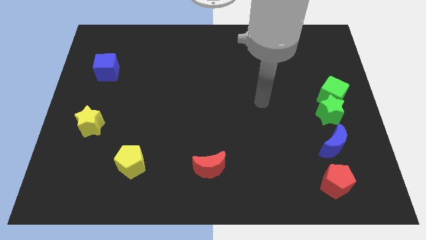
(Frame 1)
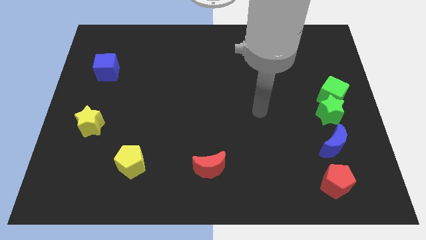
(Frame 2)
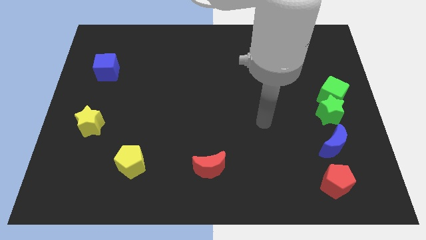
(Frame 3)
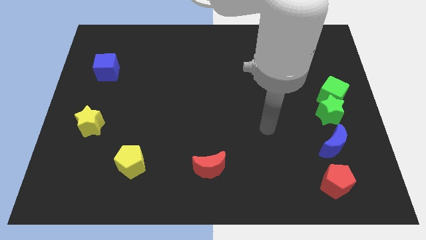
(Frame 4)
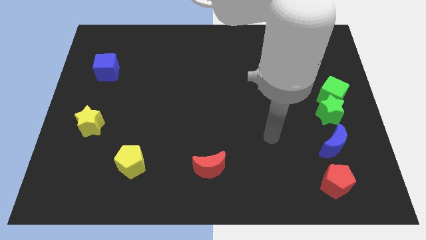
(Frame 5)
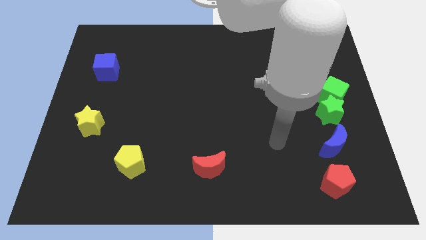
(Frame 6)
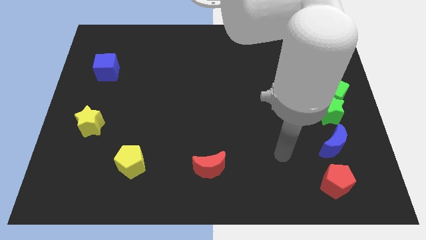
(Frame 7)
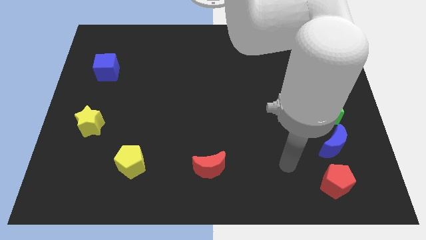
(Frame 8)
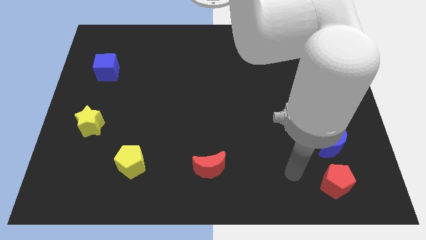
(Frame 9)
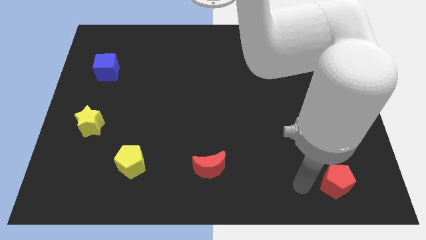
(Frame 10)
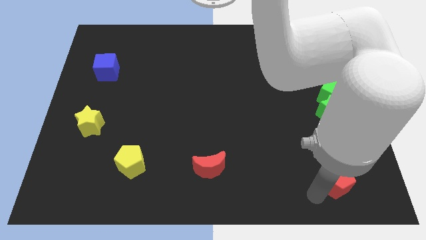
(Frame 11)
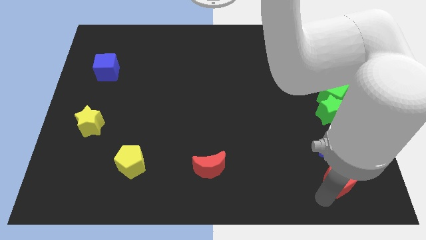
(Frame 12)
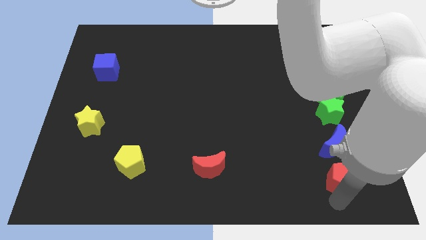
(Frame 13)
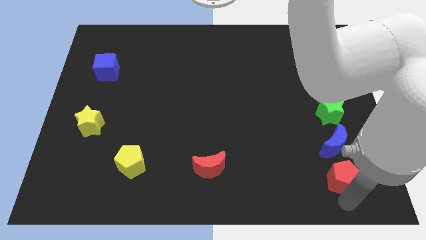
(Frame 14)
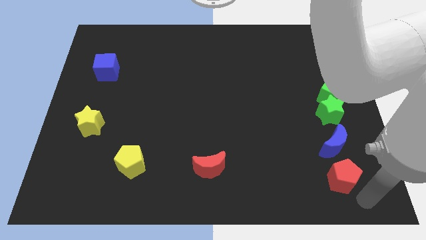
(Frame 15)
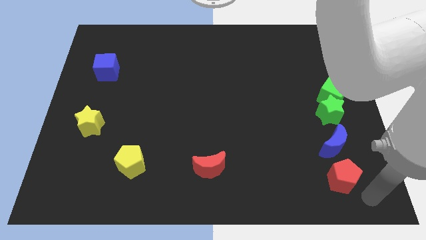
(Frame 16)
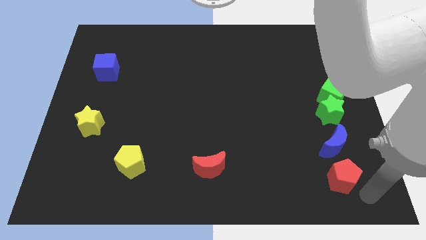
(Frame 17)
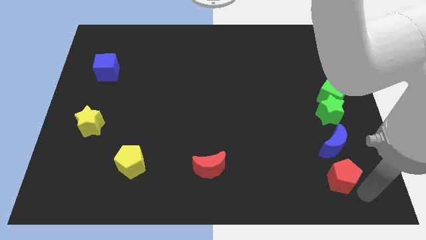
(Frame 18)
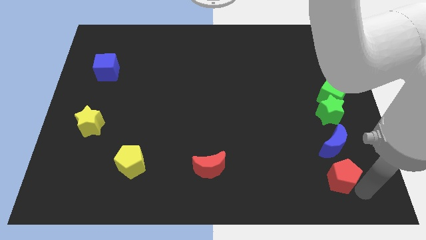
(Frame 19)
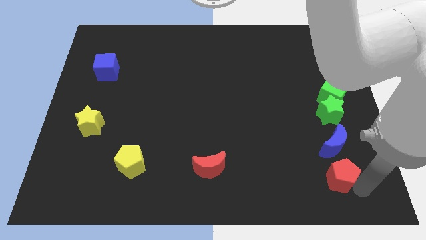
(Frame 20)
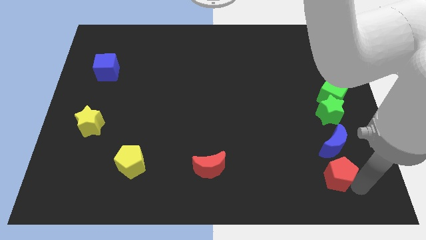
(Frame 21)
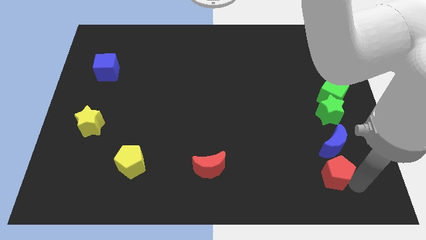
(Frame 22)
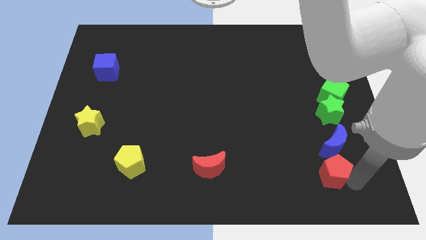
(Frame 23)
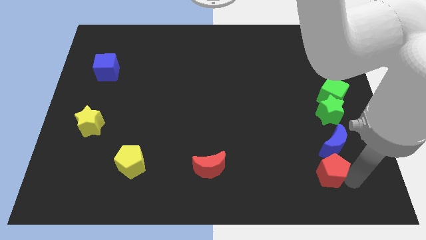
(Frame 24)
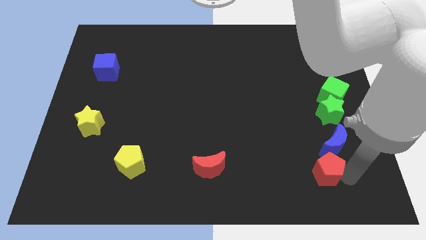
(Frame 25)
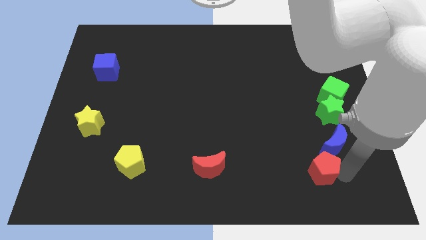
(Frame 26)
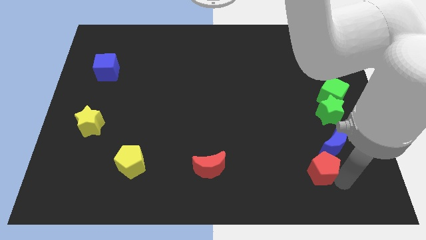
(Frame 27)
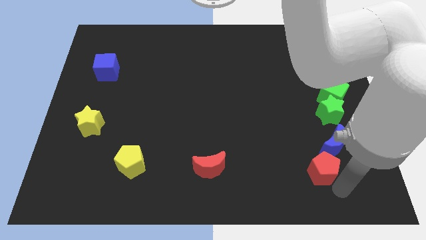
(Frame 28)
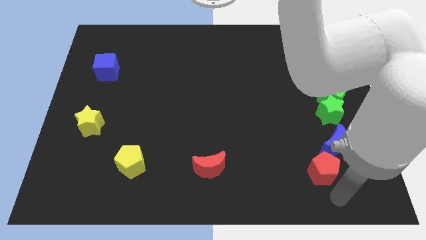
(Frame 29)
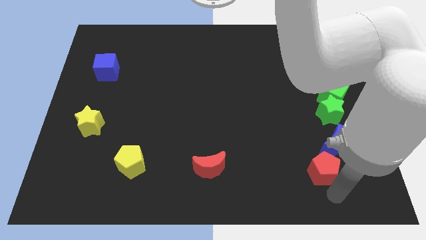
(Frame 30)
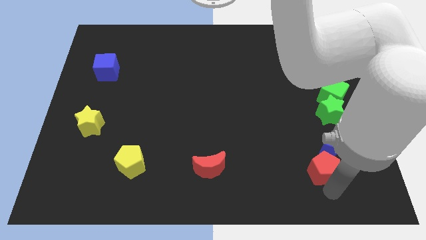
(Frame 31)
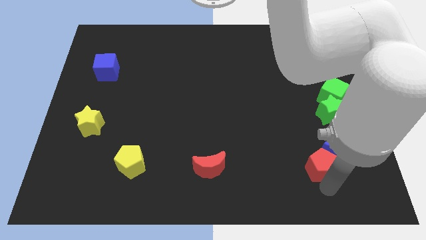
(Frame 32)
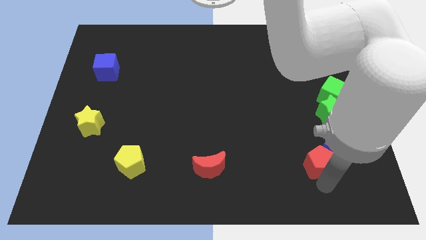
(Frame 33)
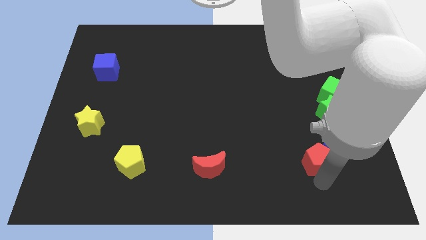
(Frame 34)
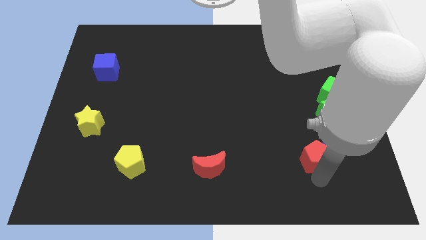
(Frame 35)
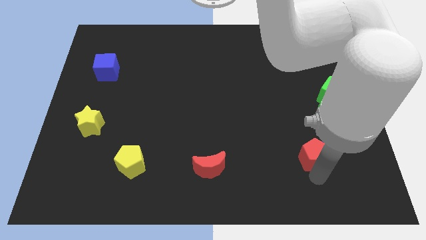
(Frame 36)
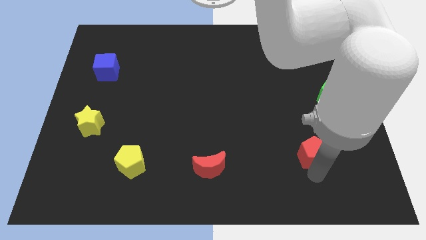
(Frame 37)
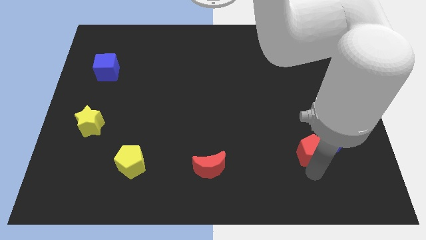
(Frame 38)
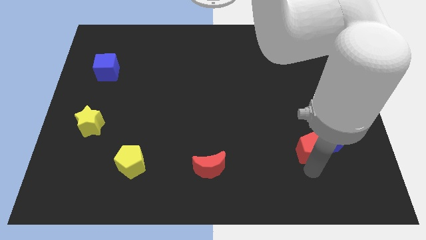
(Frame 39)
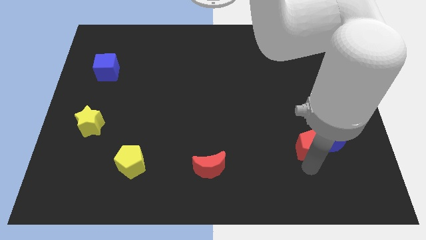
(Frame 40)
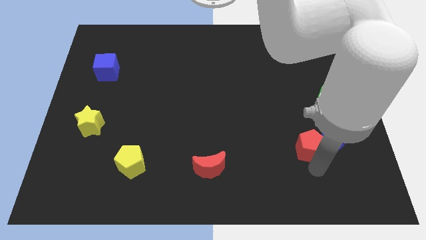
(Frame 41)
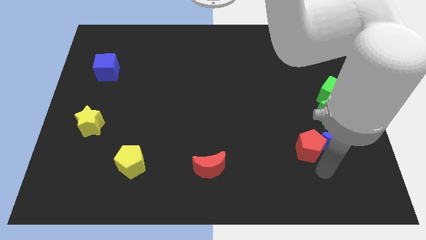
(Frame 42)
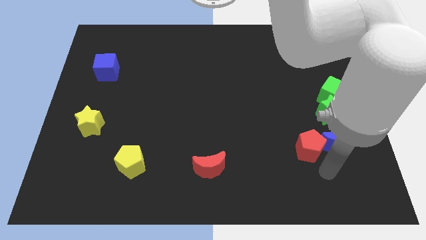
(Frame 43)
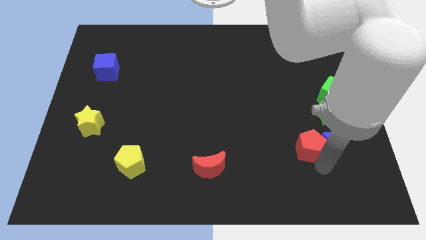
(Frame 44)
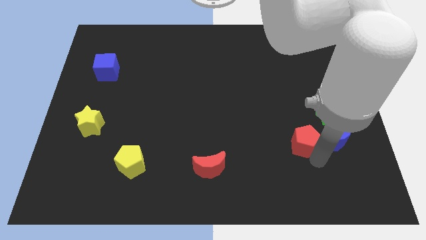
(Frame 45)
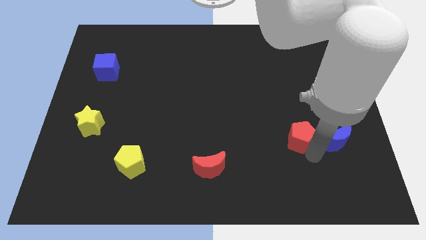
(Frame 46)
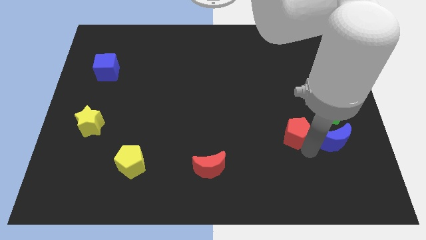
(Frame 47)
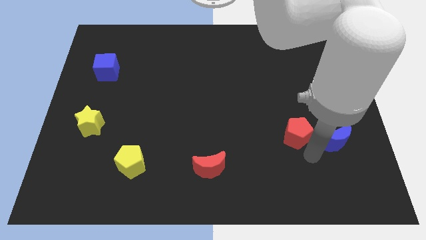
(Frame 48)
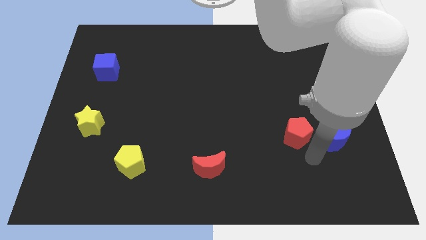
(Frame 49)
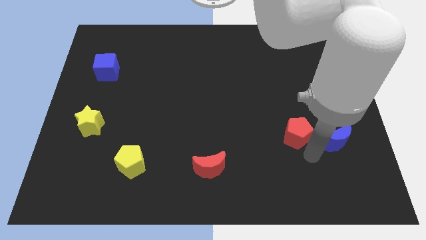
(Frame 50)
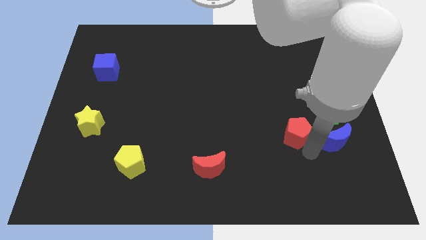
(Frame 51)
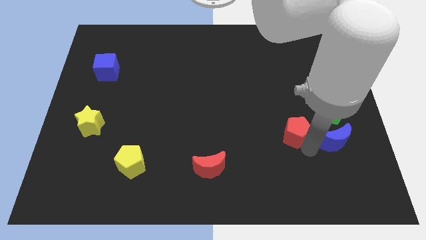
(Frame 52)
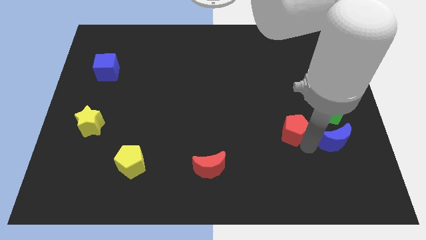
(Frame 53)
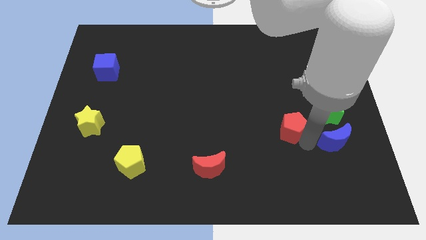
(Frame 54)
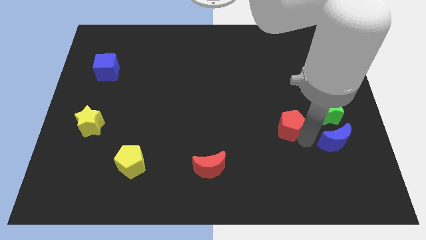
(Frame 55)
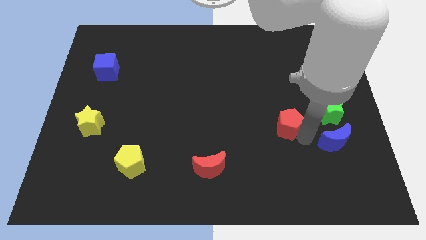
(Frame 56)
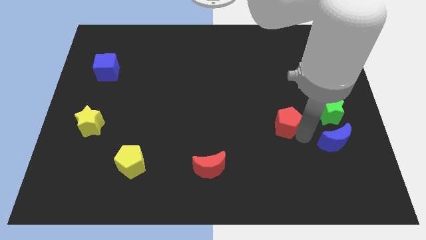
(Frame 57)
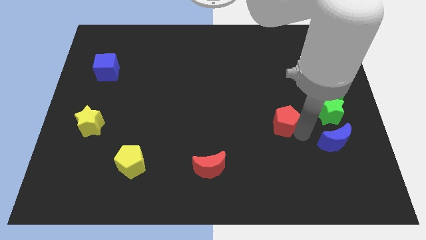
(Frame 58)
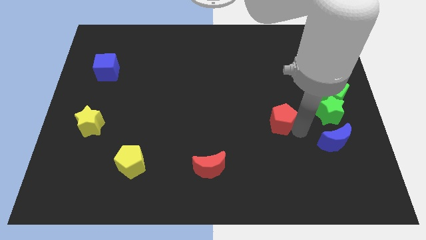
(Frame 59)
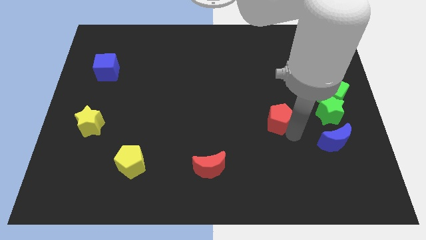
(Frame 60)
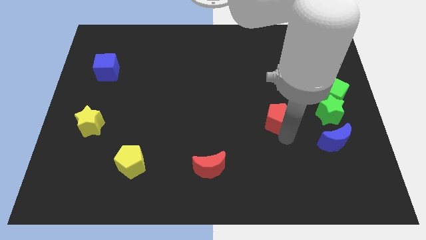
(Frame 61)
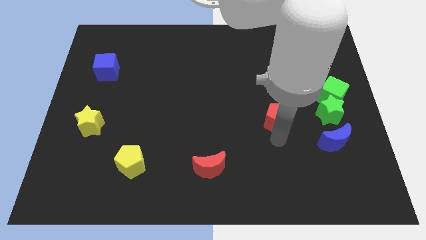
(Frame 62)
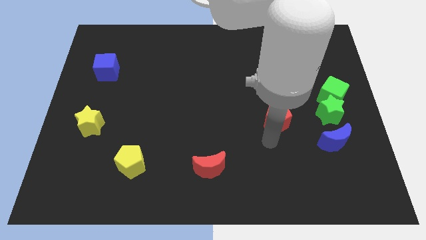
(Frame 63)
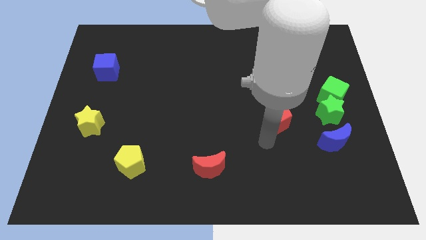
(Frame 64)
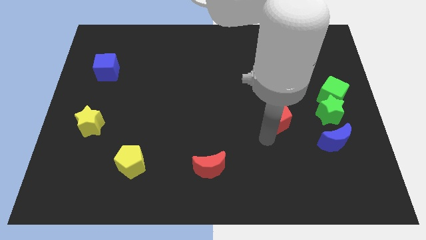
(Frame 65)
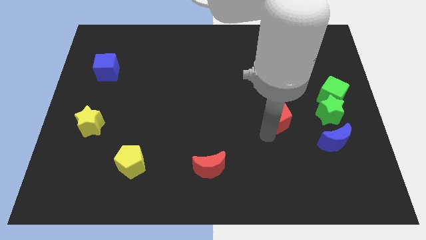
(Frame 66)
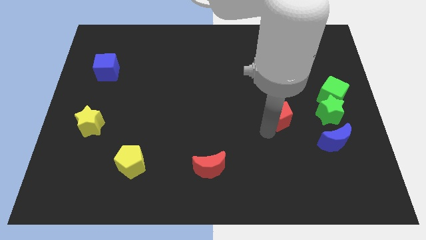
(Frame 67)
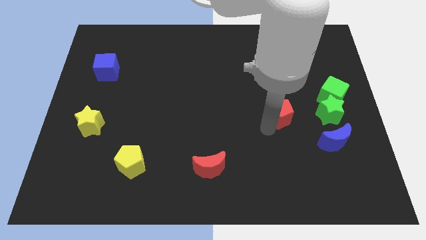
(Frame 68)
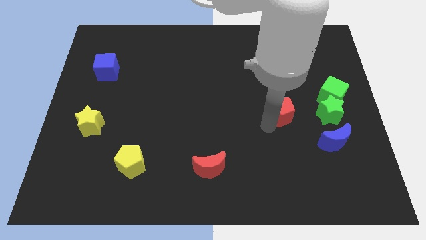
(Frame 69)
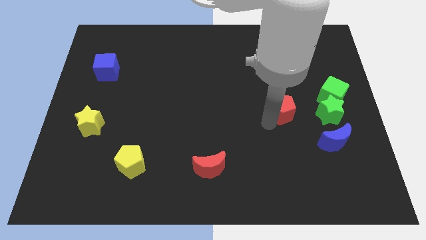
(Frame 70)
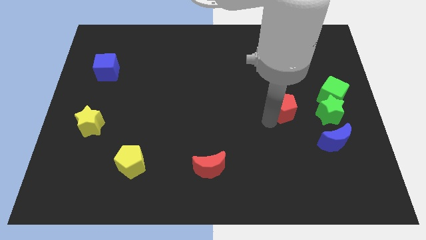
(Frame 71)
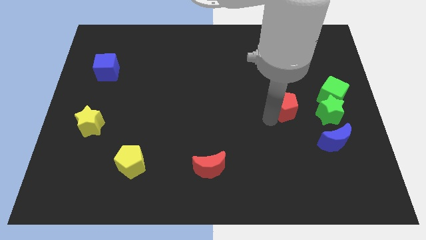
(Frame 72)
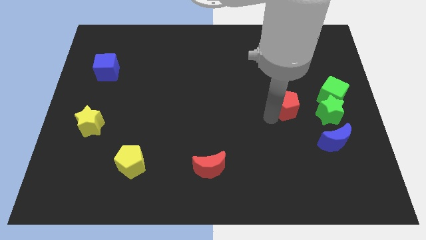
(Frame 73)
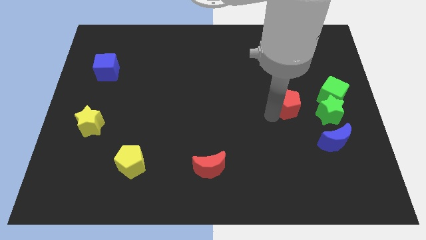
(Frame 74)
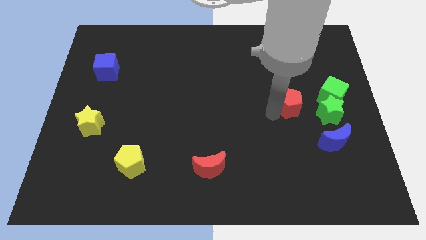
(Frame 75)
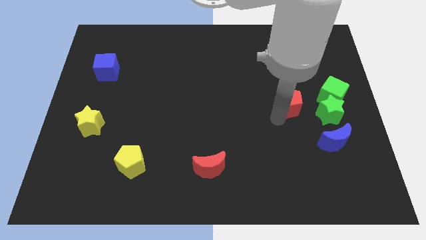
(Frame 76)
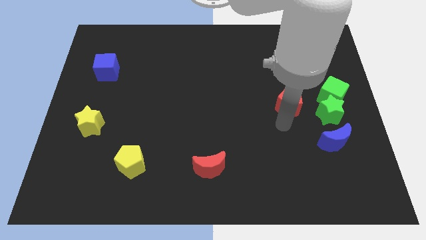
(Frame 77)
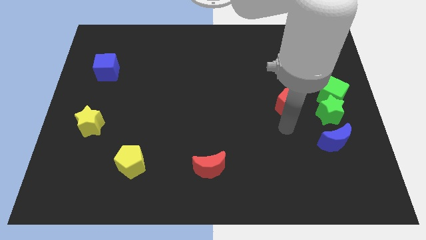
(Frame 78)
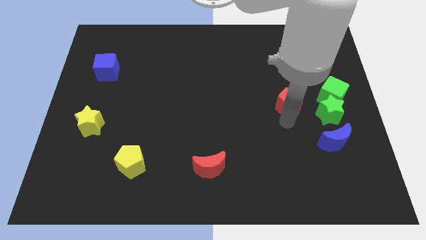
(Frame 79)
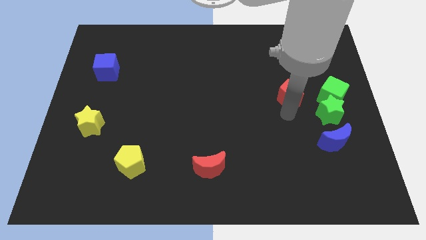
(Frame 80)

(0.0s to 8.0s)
move the red pentagon up
